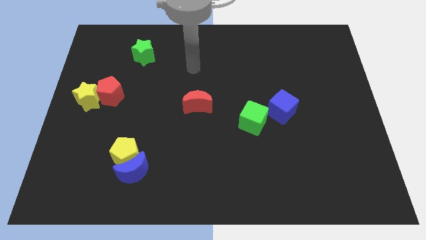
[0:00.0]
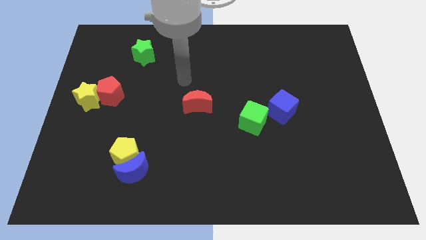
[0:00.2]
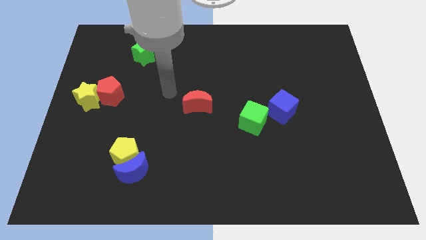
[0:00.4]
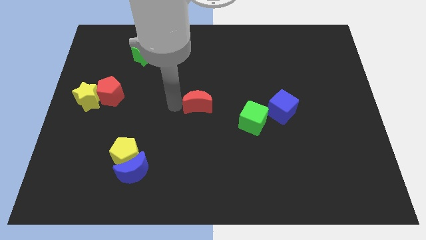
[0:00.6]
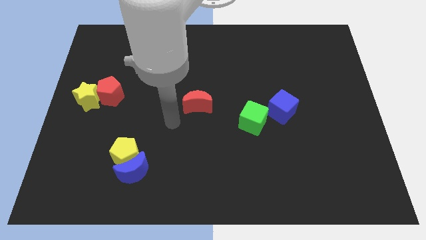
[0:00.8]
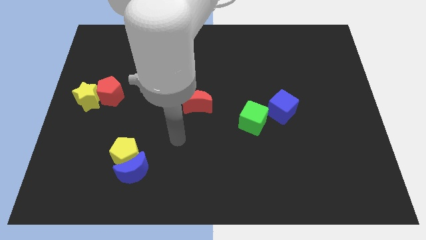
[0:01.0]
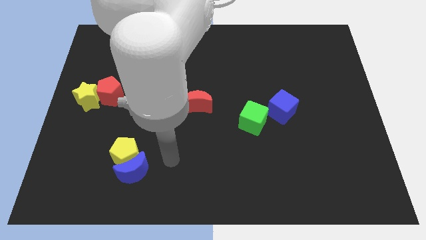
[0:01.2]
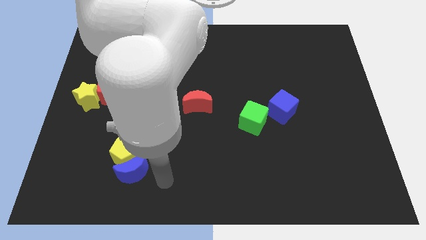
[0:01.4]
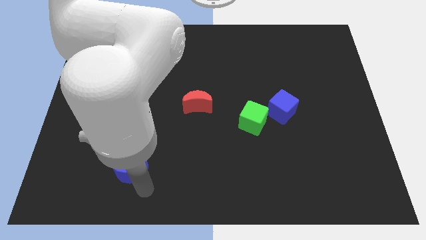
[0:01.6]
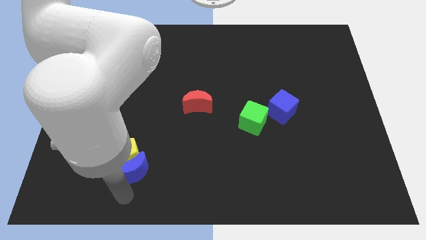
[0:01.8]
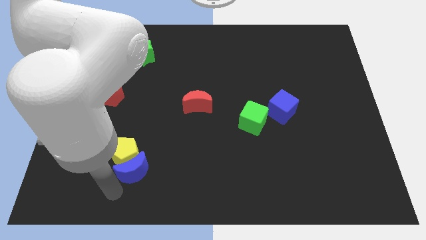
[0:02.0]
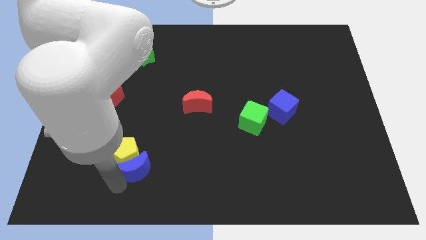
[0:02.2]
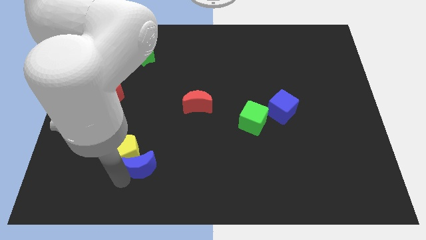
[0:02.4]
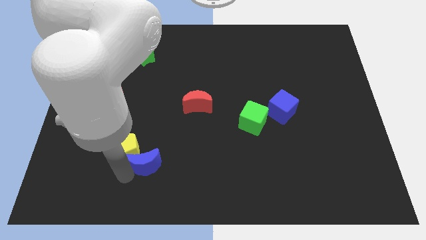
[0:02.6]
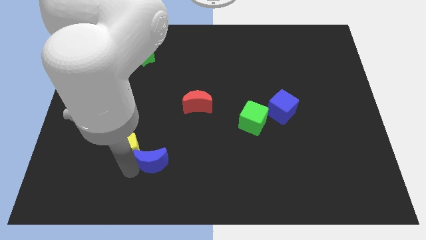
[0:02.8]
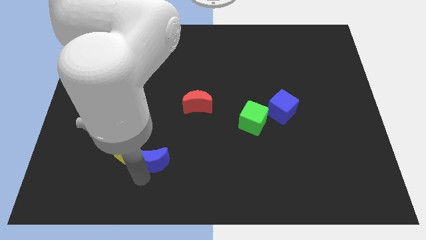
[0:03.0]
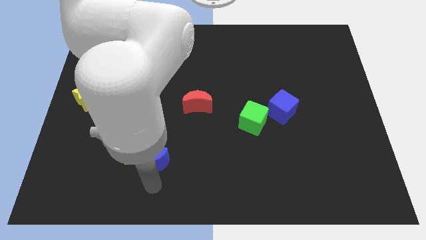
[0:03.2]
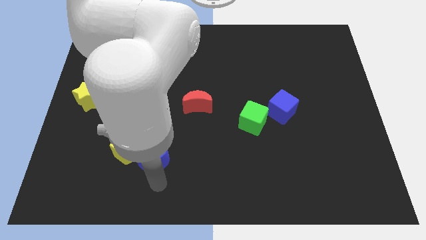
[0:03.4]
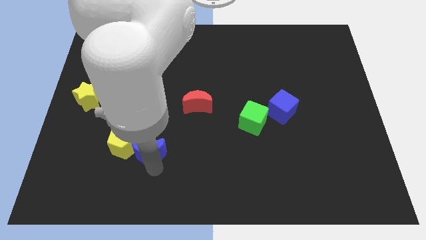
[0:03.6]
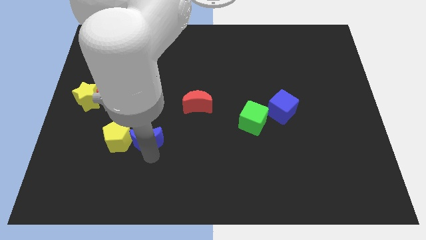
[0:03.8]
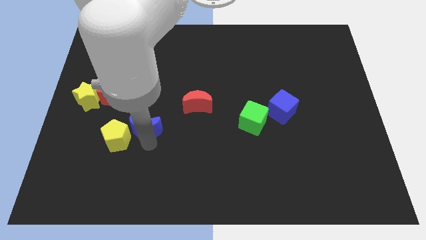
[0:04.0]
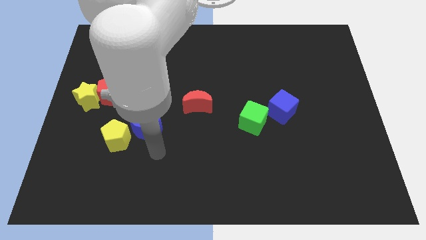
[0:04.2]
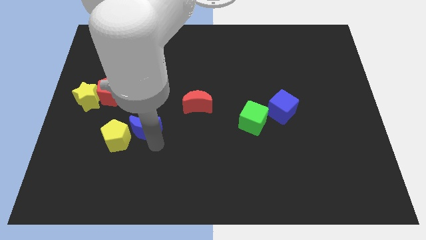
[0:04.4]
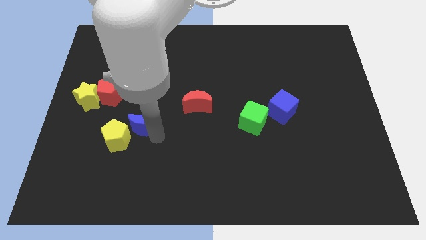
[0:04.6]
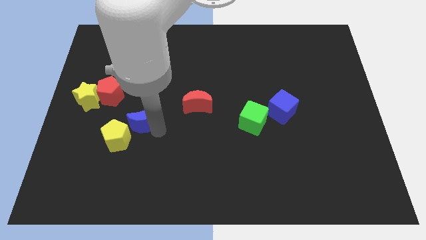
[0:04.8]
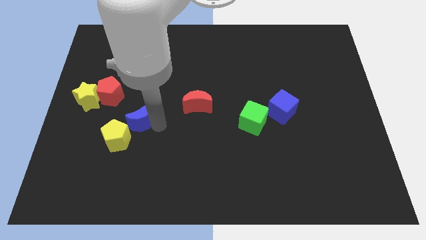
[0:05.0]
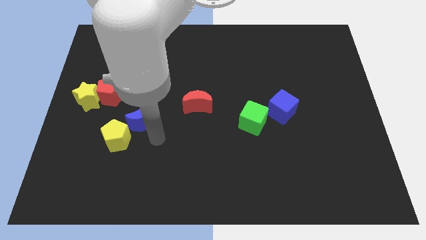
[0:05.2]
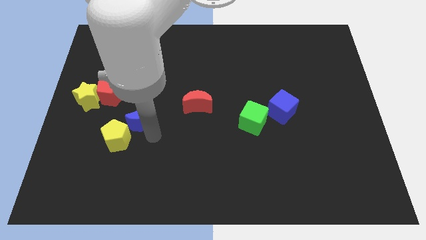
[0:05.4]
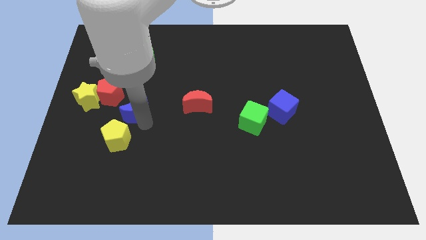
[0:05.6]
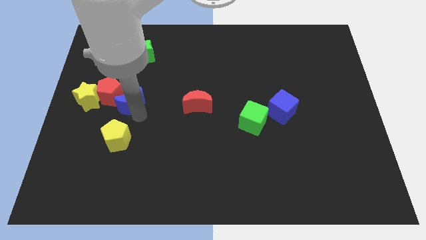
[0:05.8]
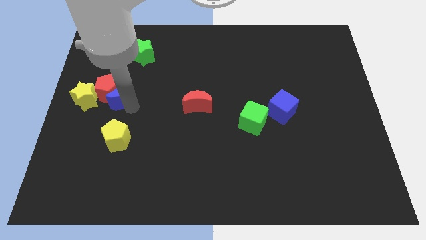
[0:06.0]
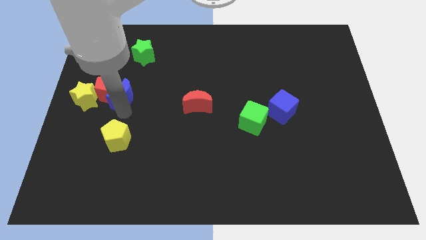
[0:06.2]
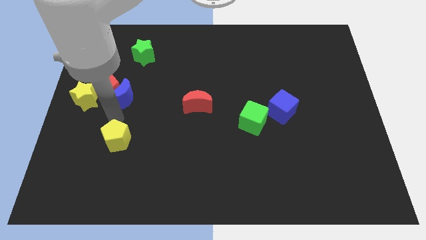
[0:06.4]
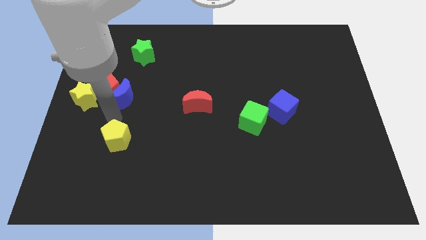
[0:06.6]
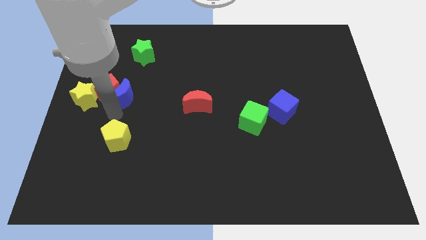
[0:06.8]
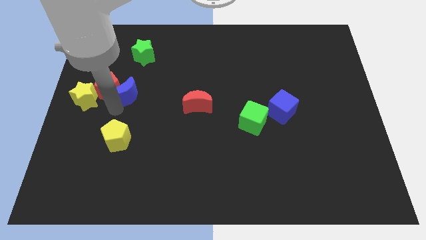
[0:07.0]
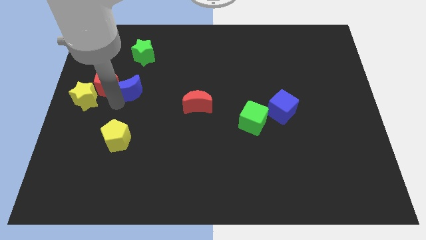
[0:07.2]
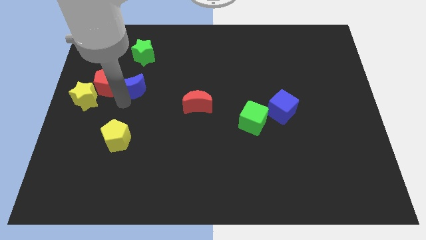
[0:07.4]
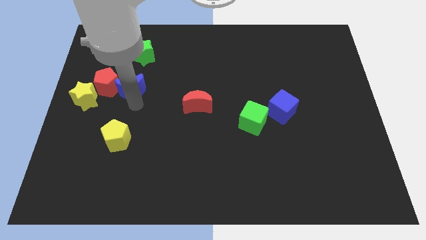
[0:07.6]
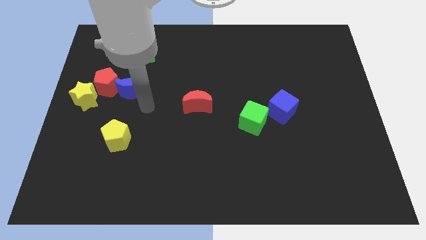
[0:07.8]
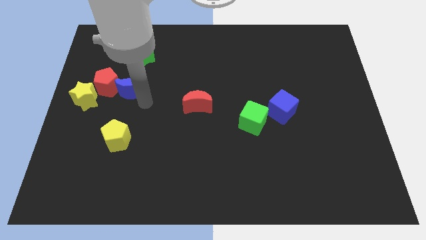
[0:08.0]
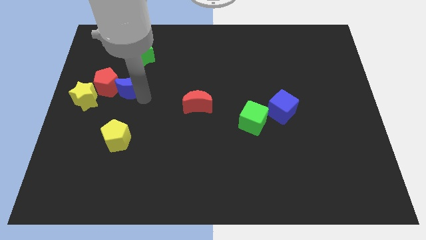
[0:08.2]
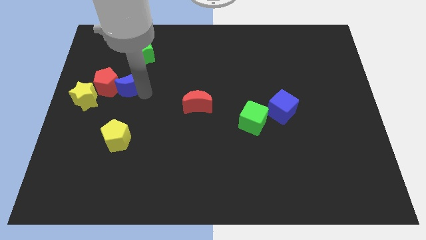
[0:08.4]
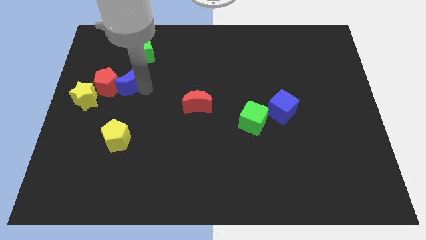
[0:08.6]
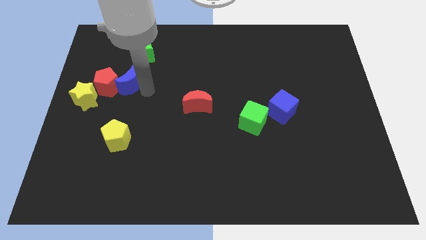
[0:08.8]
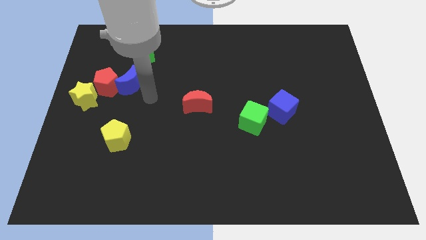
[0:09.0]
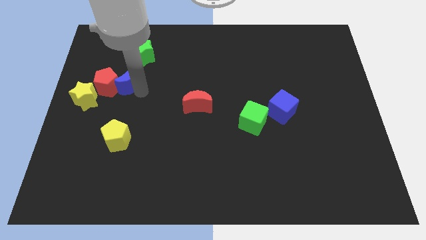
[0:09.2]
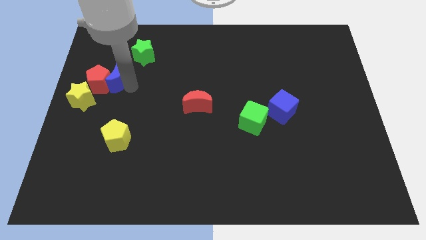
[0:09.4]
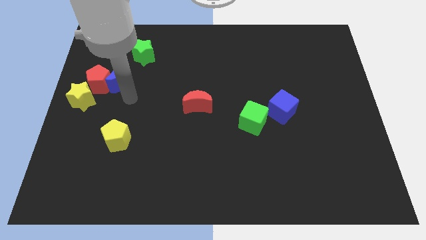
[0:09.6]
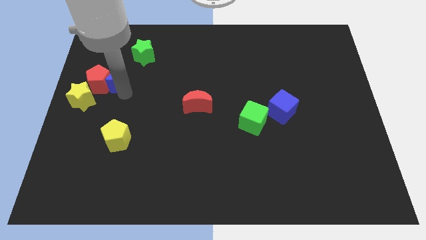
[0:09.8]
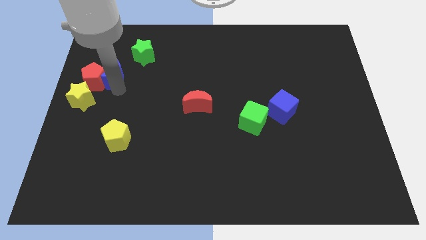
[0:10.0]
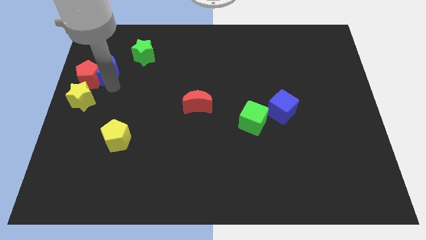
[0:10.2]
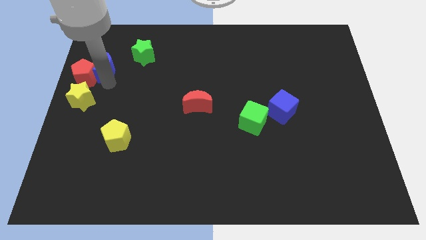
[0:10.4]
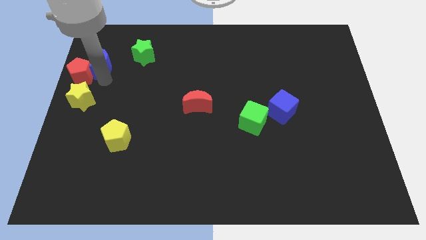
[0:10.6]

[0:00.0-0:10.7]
push the blue moon to the left side of the green star

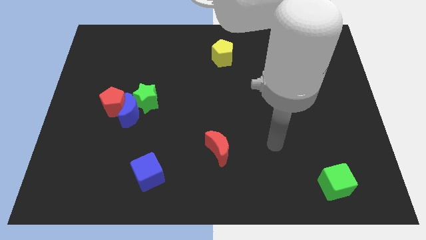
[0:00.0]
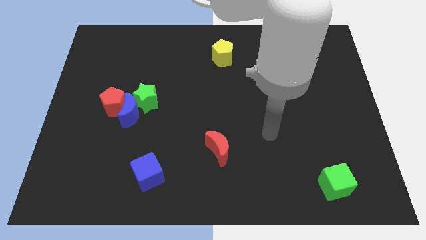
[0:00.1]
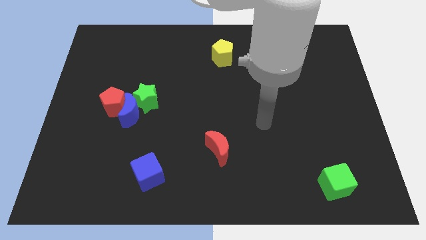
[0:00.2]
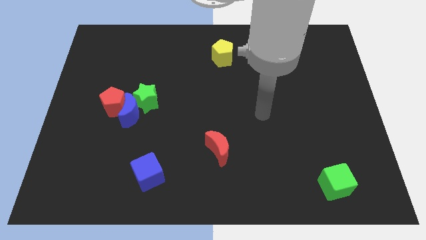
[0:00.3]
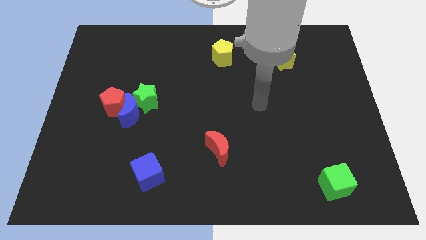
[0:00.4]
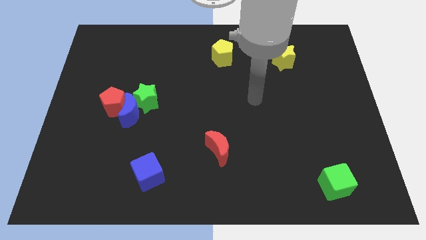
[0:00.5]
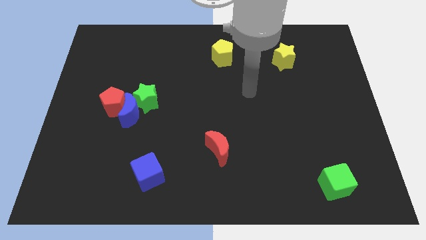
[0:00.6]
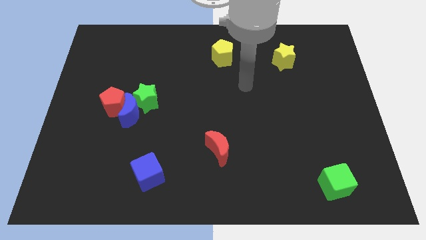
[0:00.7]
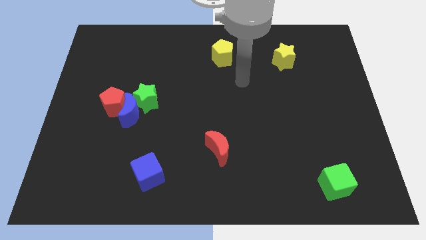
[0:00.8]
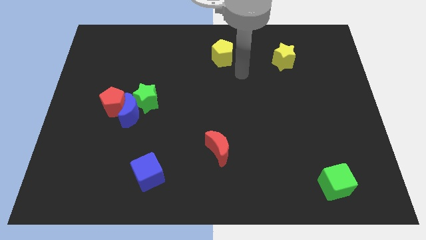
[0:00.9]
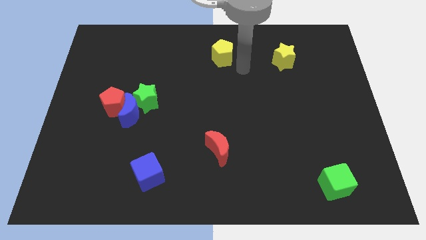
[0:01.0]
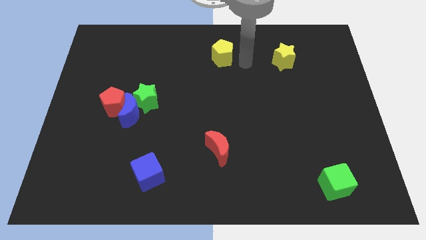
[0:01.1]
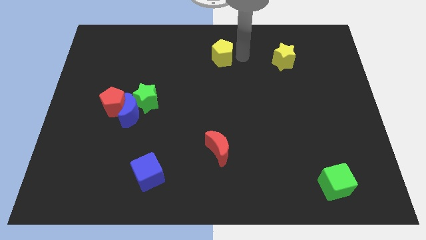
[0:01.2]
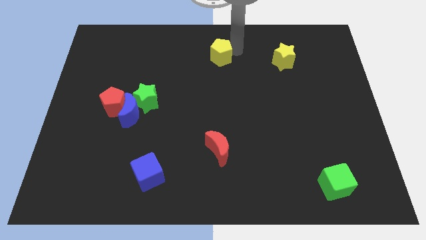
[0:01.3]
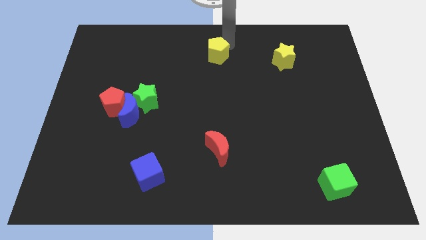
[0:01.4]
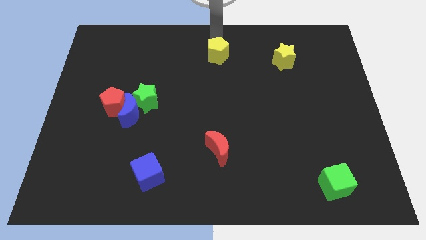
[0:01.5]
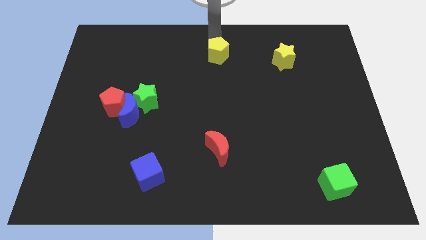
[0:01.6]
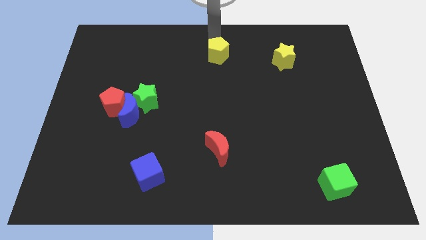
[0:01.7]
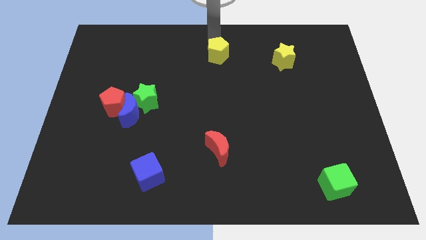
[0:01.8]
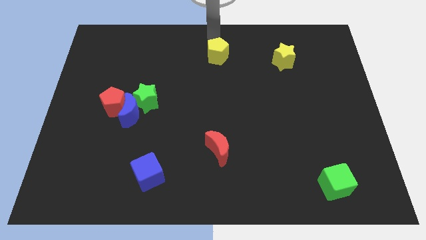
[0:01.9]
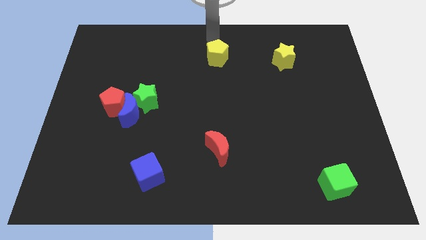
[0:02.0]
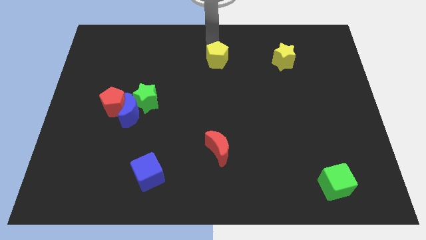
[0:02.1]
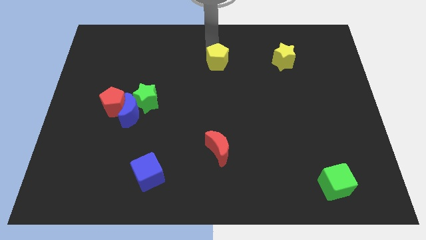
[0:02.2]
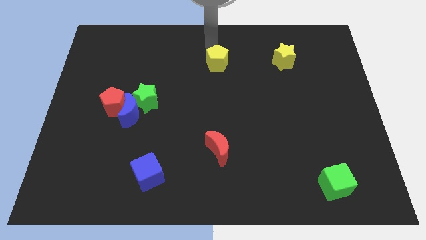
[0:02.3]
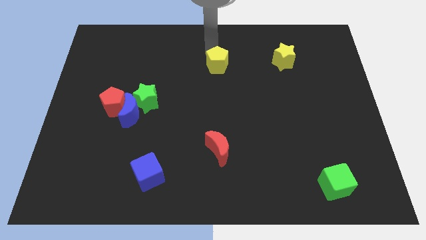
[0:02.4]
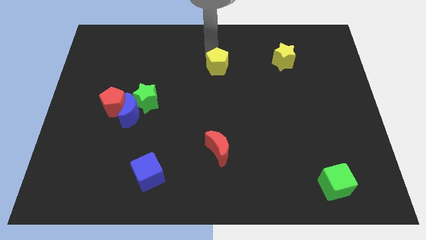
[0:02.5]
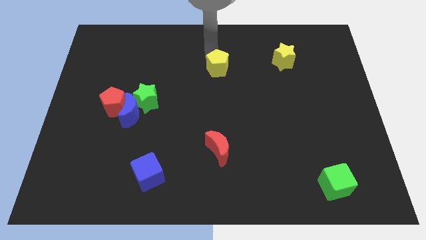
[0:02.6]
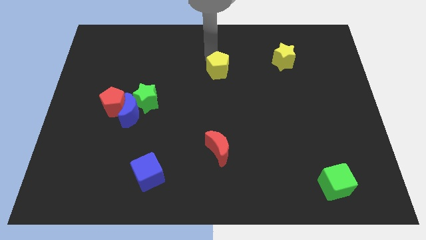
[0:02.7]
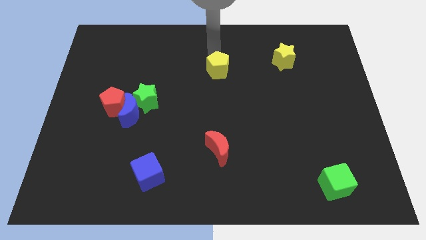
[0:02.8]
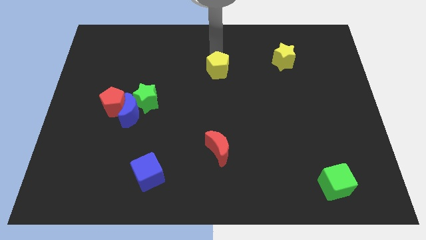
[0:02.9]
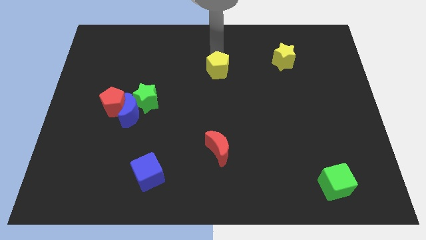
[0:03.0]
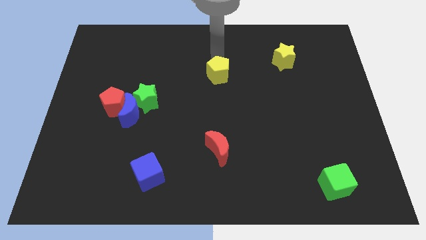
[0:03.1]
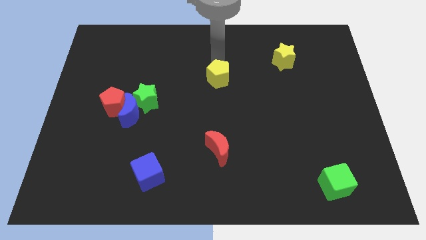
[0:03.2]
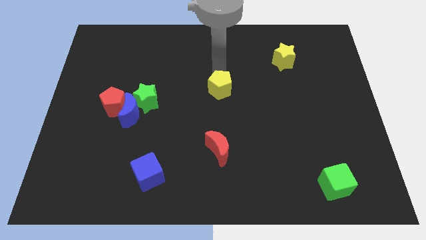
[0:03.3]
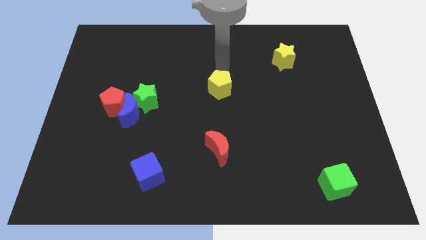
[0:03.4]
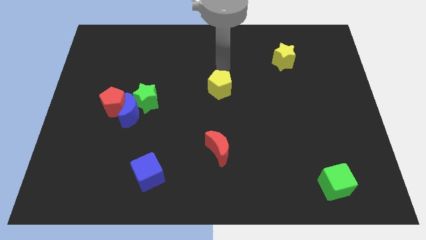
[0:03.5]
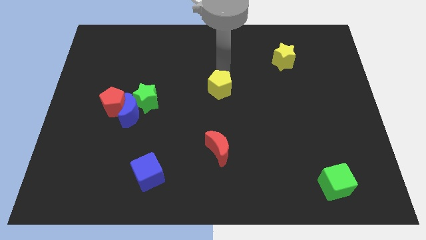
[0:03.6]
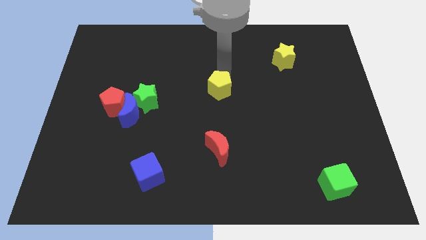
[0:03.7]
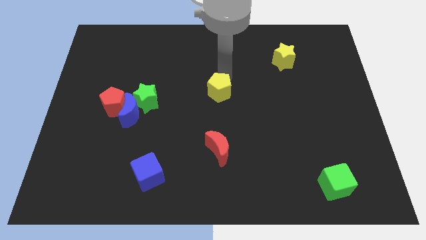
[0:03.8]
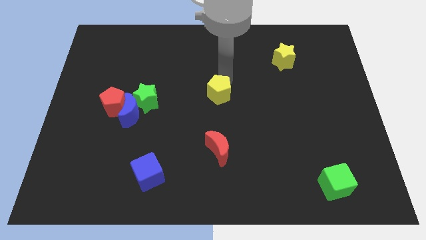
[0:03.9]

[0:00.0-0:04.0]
slide the yellow pentagon to the top of the red moon
